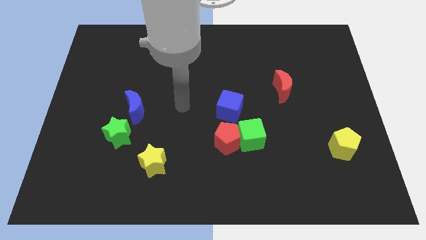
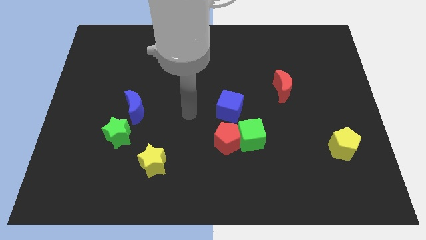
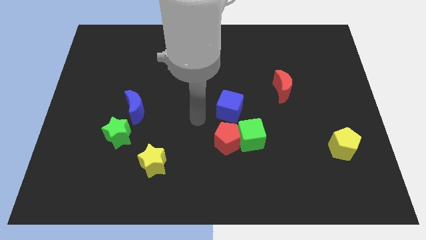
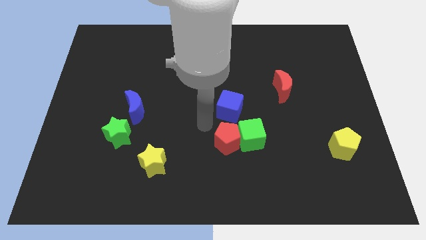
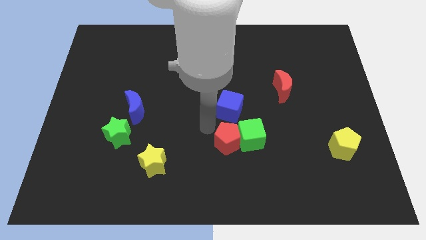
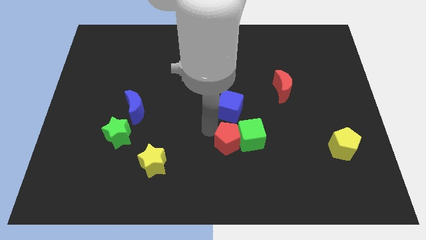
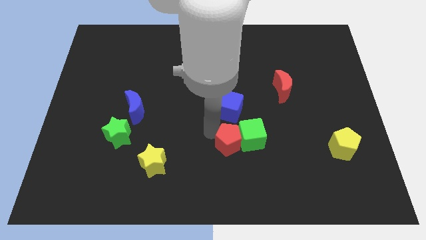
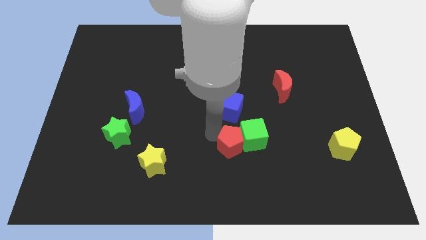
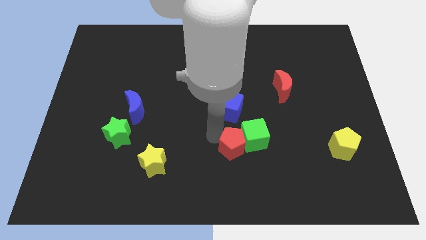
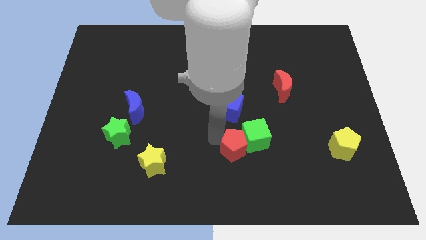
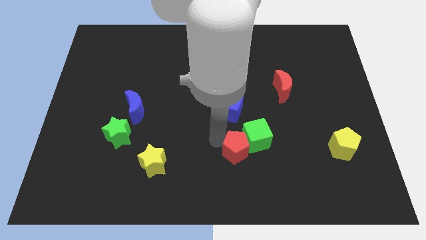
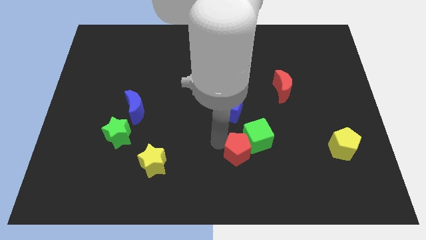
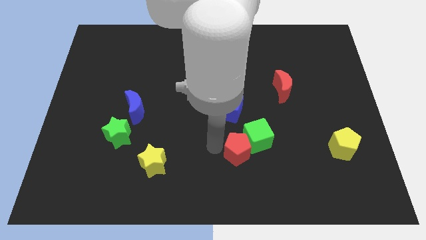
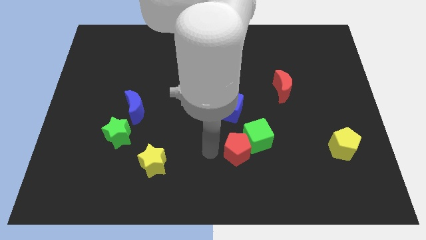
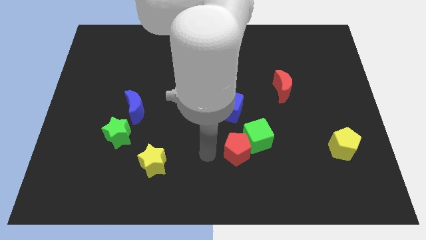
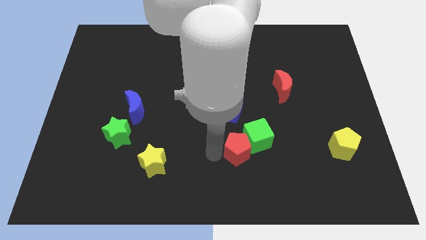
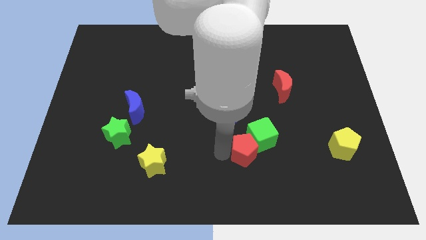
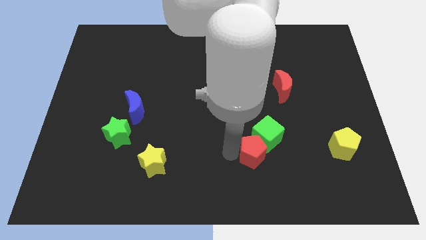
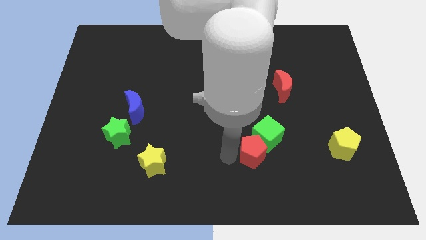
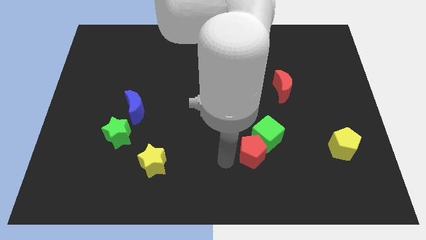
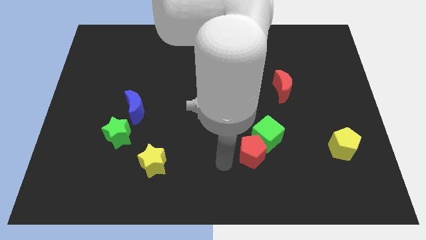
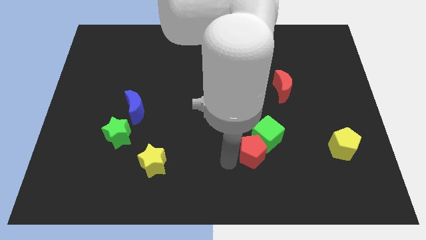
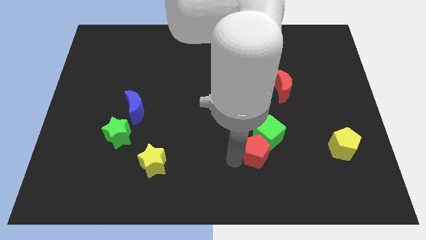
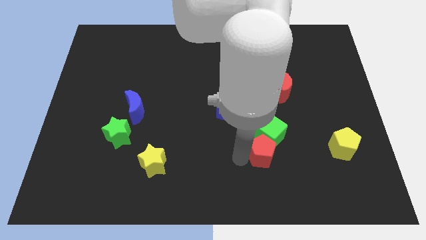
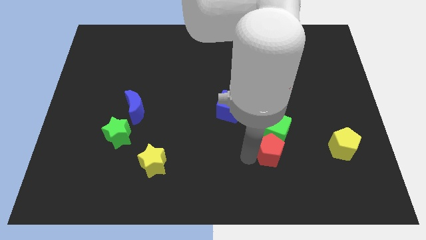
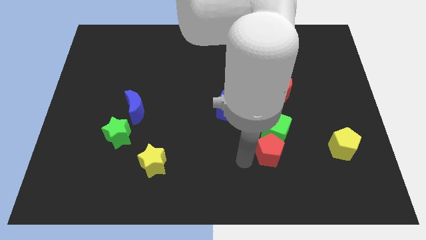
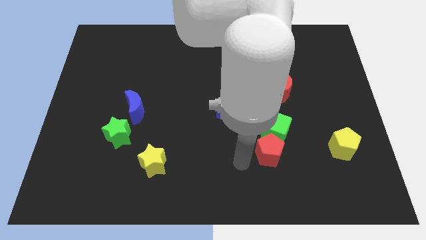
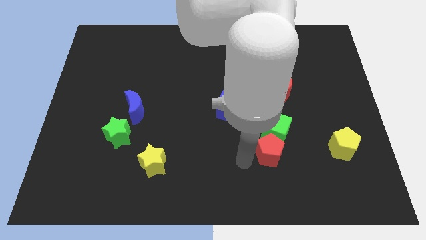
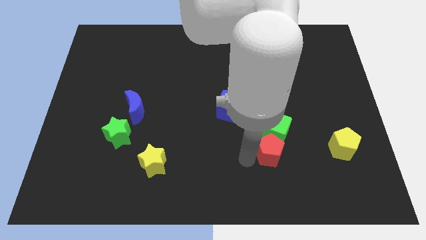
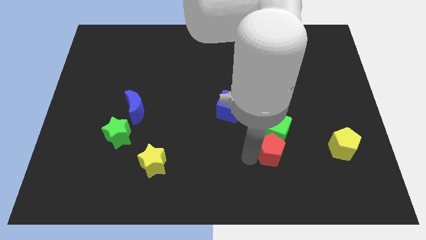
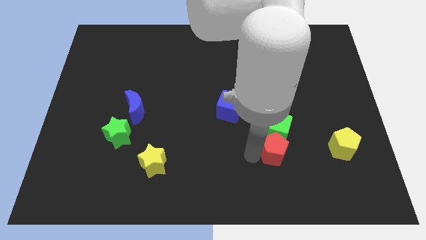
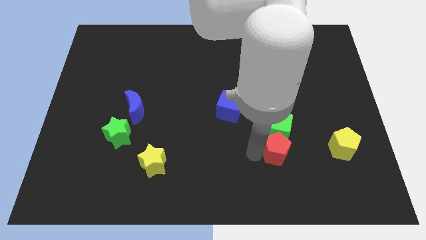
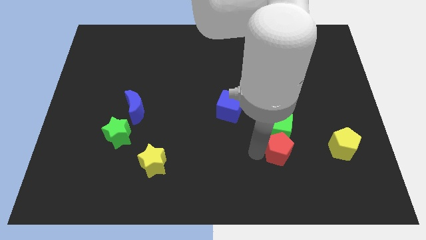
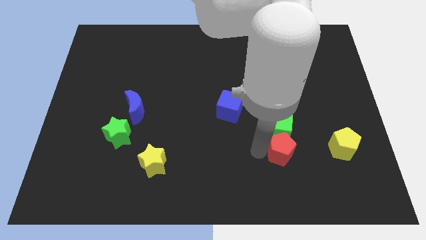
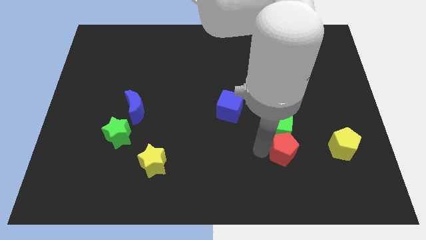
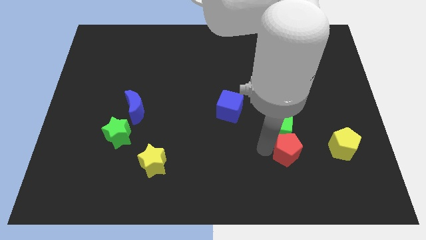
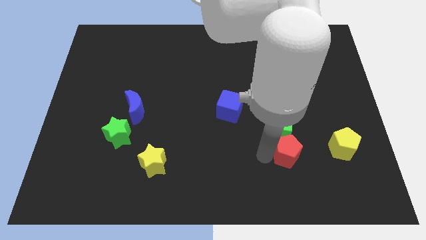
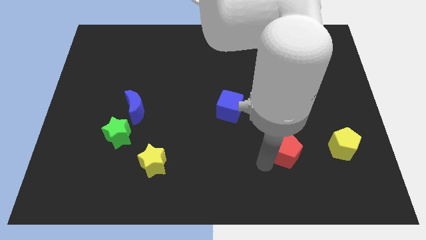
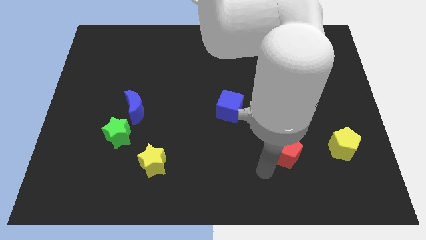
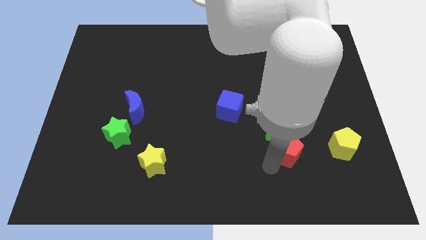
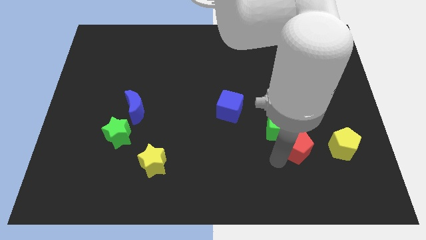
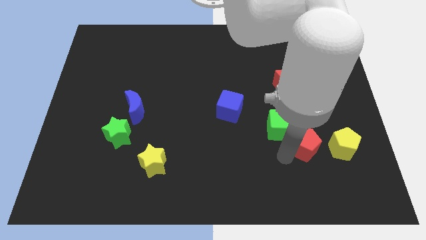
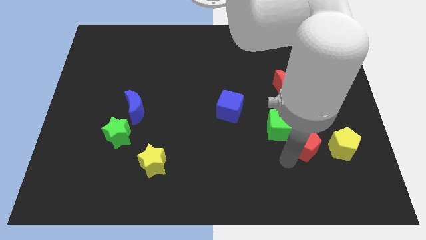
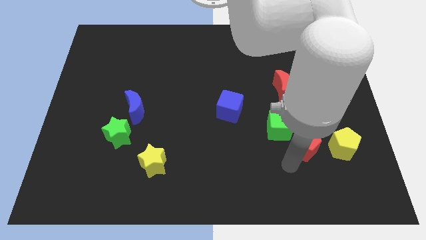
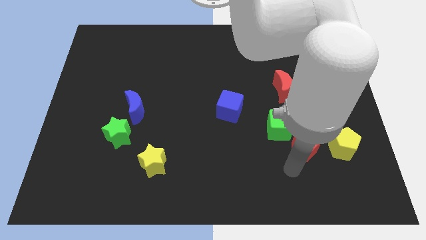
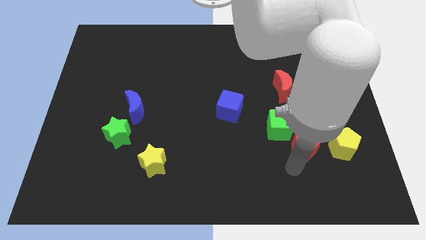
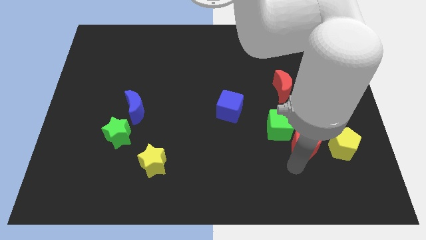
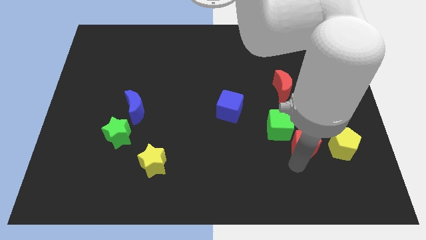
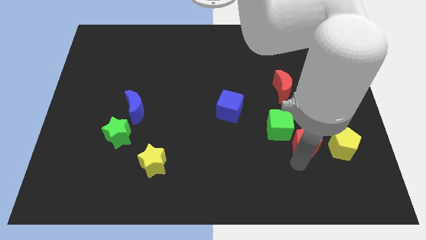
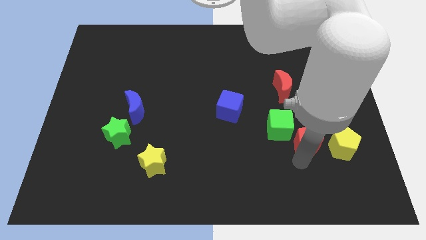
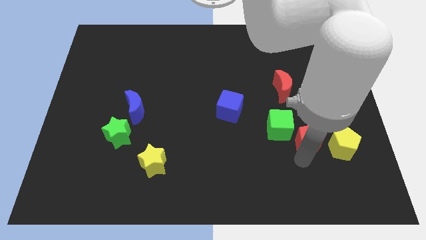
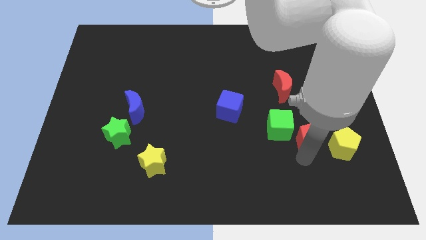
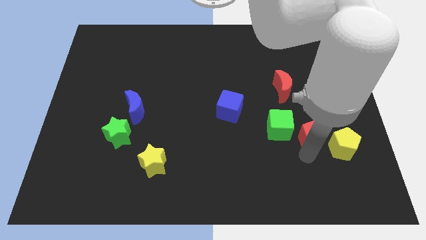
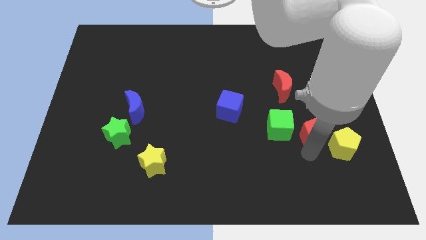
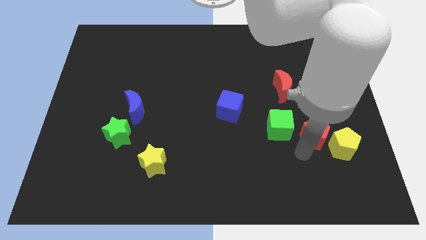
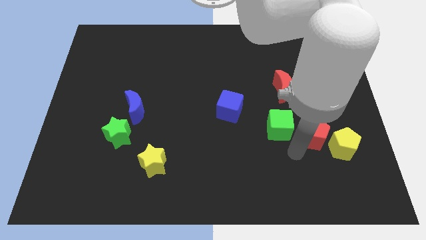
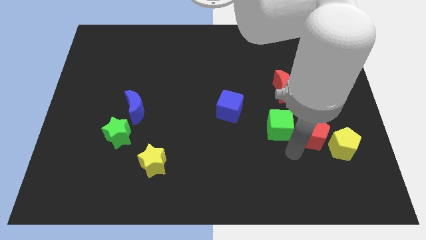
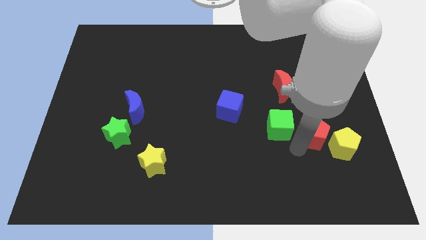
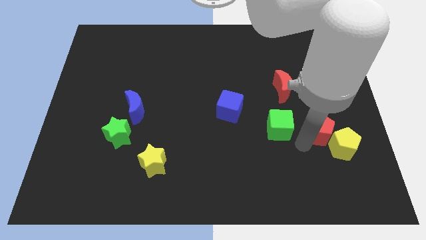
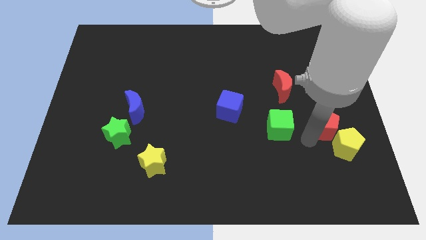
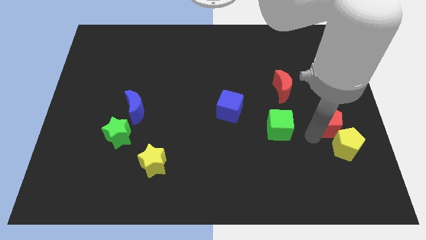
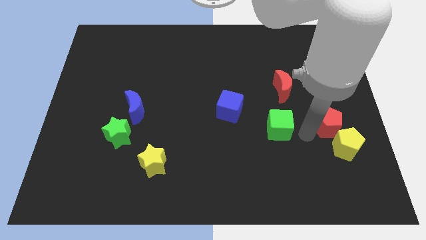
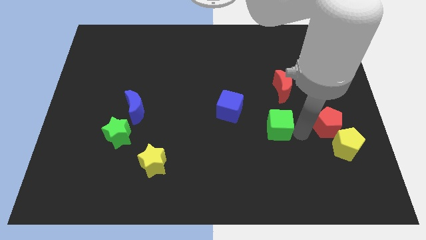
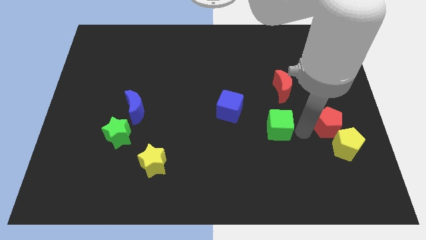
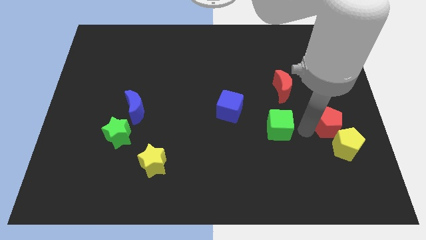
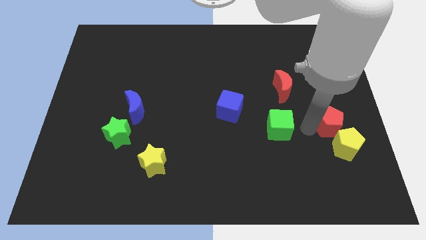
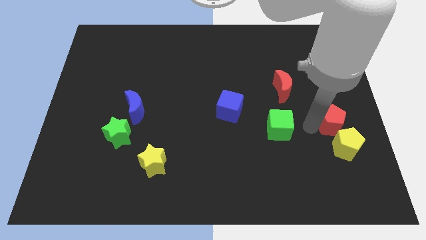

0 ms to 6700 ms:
push the red pentagon to the right side
